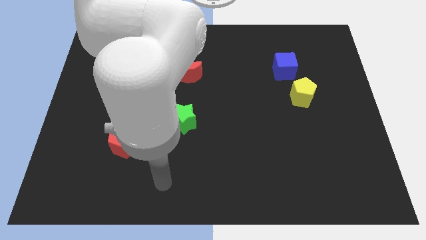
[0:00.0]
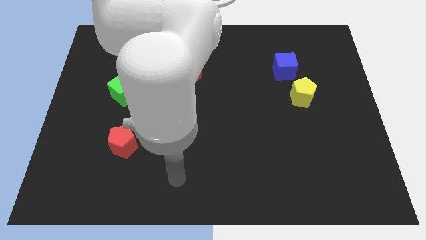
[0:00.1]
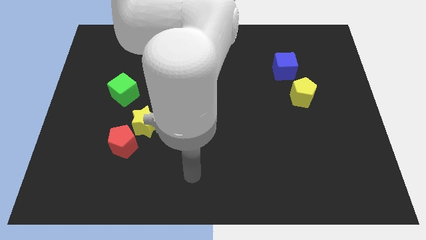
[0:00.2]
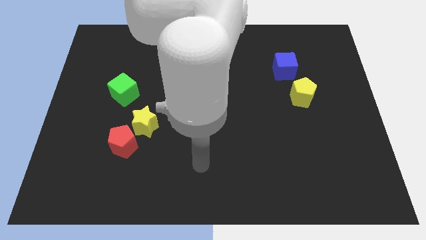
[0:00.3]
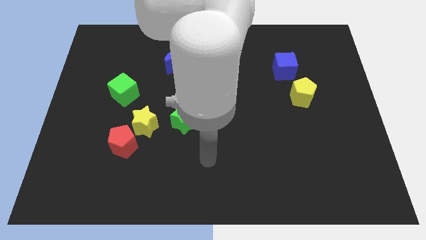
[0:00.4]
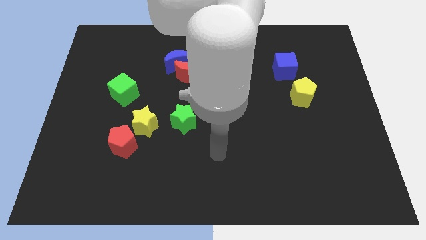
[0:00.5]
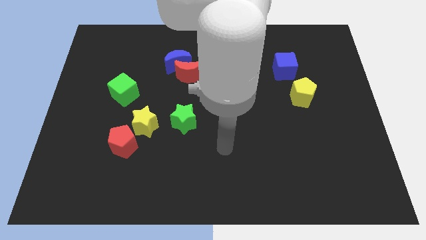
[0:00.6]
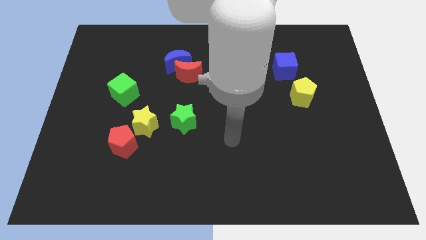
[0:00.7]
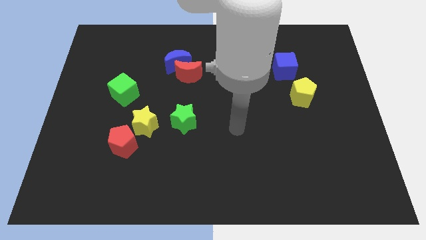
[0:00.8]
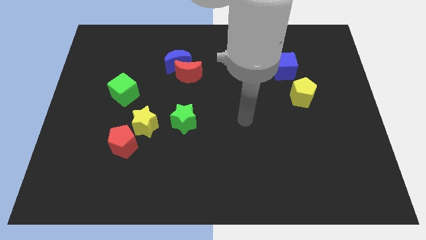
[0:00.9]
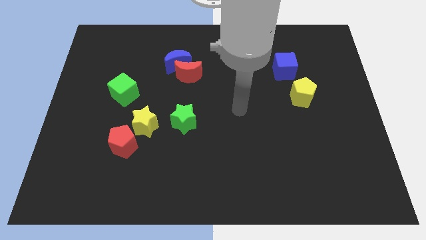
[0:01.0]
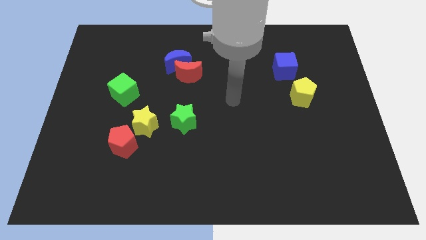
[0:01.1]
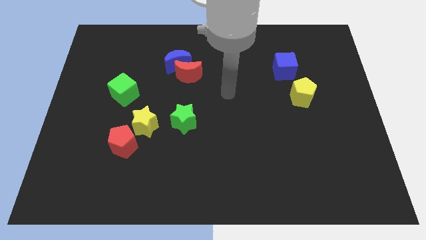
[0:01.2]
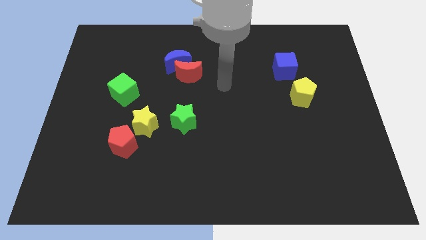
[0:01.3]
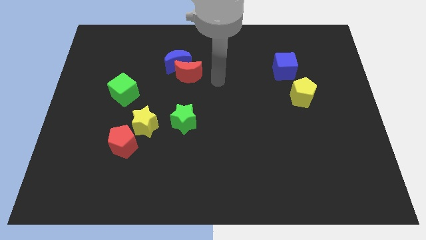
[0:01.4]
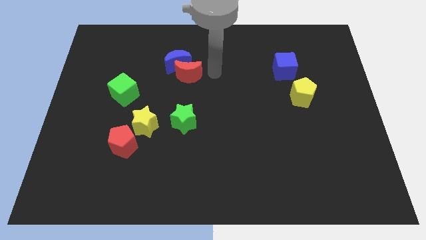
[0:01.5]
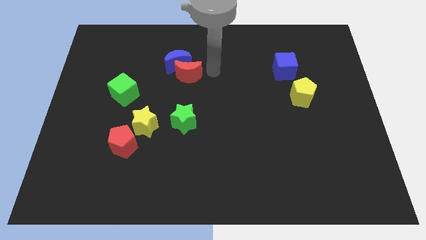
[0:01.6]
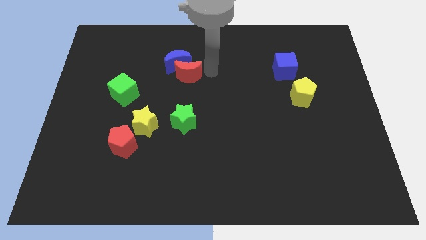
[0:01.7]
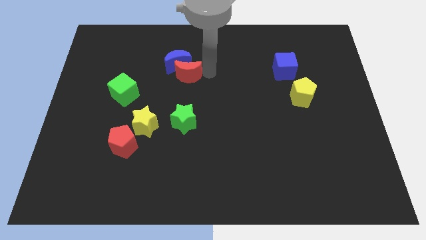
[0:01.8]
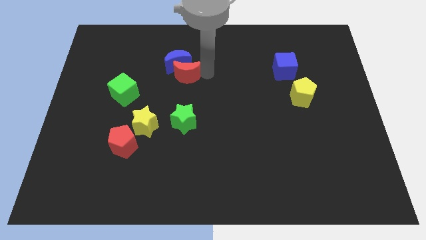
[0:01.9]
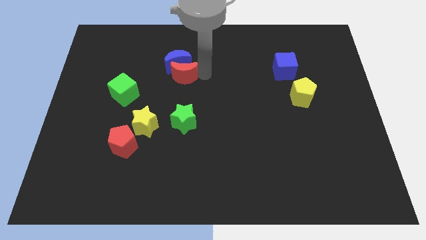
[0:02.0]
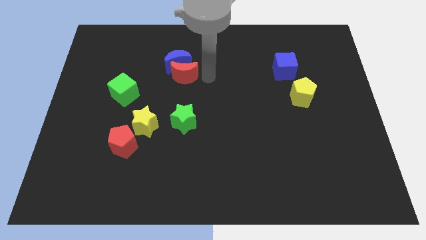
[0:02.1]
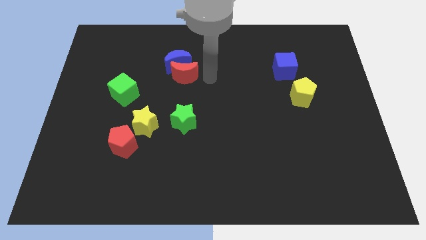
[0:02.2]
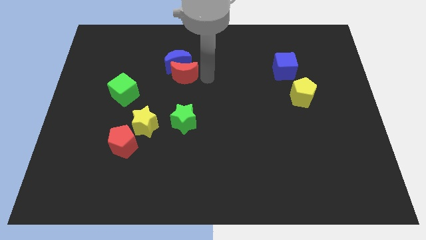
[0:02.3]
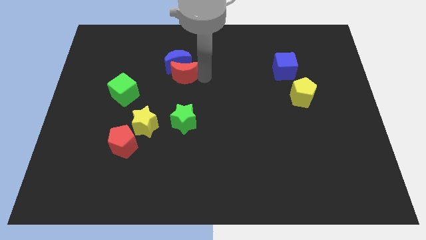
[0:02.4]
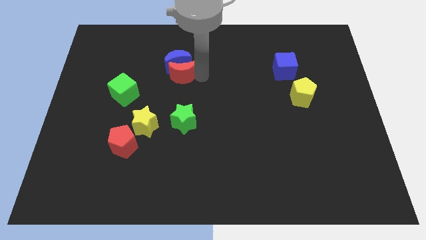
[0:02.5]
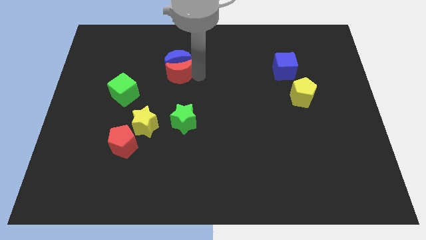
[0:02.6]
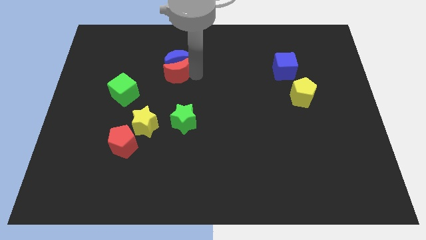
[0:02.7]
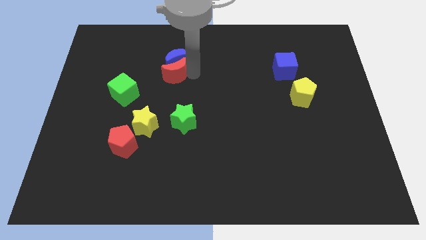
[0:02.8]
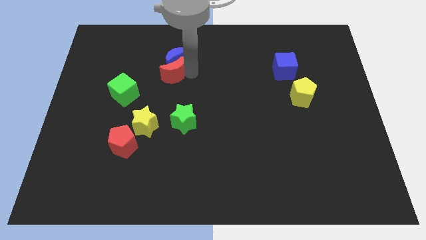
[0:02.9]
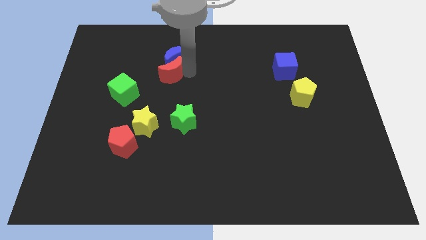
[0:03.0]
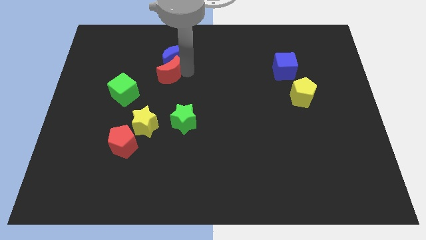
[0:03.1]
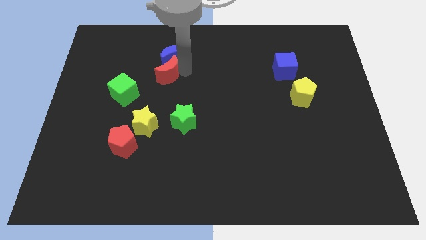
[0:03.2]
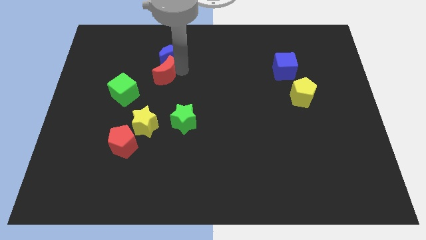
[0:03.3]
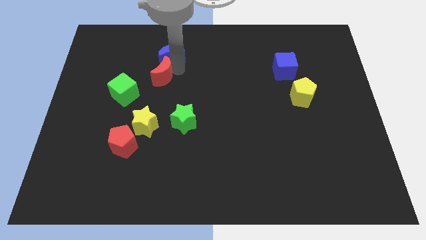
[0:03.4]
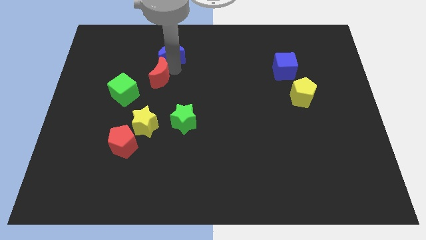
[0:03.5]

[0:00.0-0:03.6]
push the red moon left a little

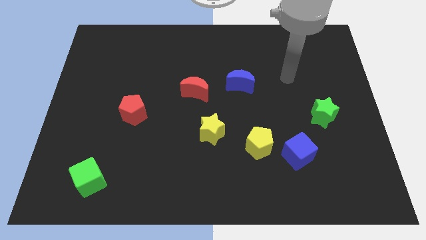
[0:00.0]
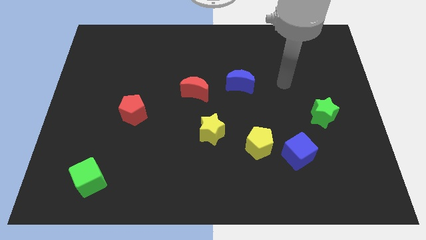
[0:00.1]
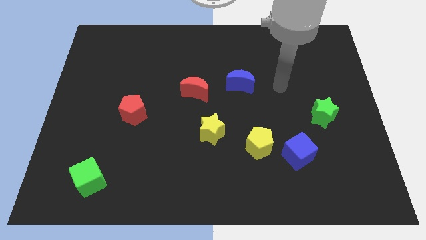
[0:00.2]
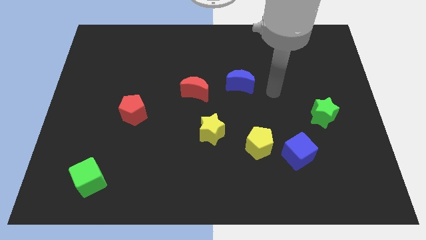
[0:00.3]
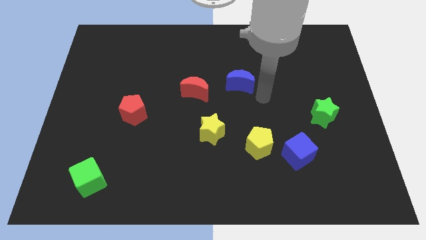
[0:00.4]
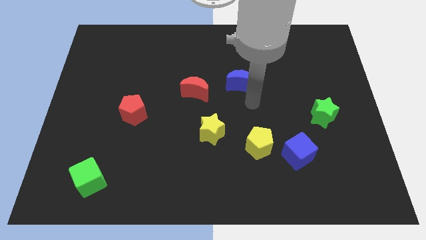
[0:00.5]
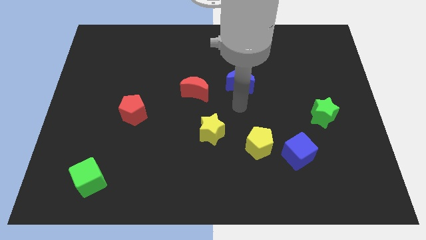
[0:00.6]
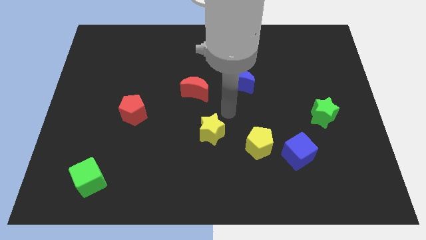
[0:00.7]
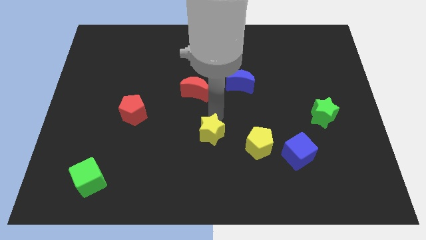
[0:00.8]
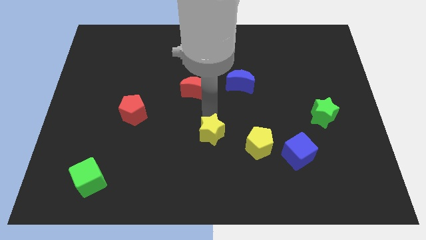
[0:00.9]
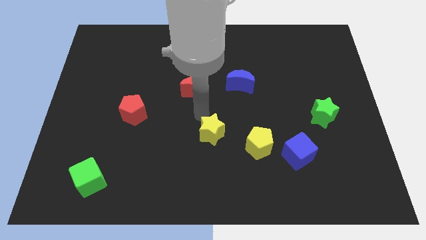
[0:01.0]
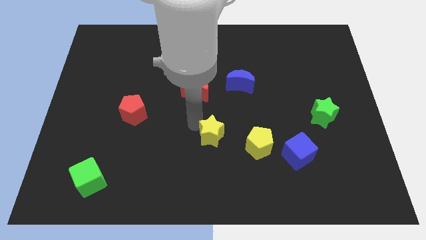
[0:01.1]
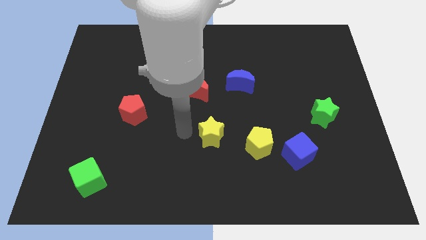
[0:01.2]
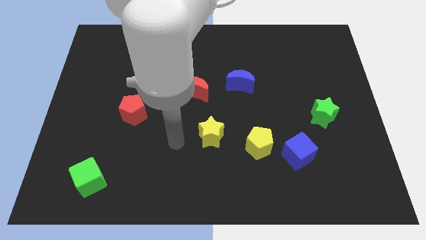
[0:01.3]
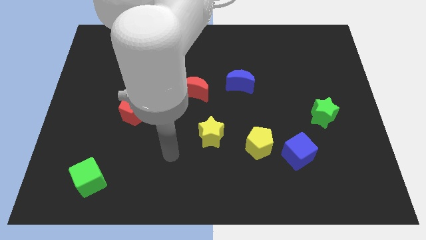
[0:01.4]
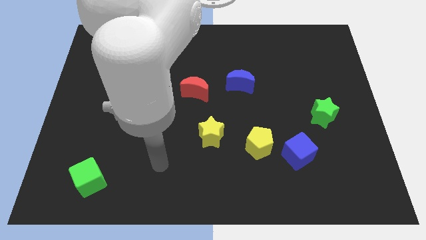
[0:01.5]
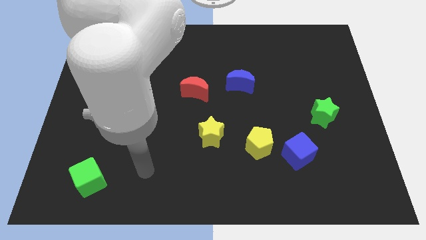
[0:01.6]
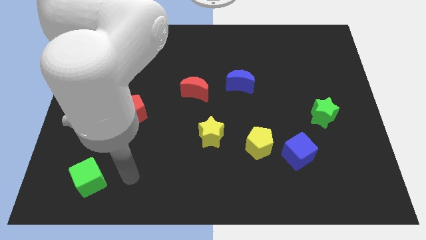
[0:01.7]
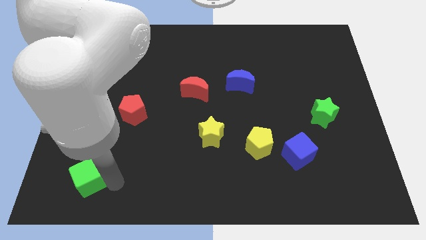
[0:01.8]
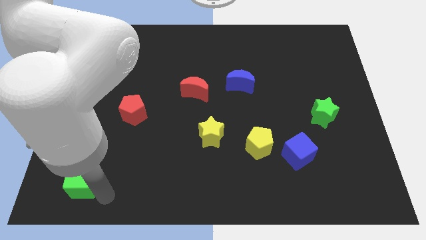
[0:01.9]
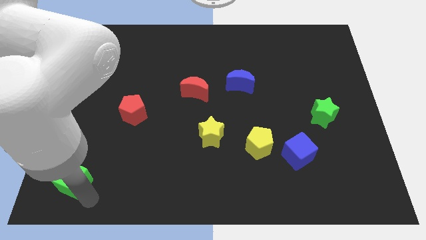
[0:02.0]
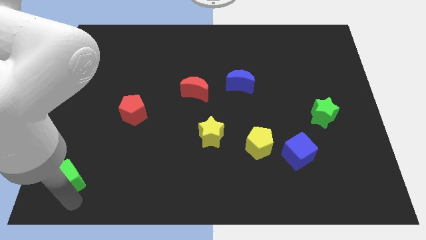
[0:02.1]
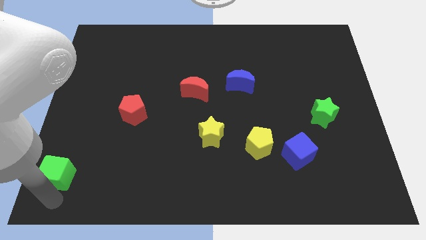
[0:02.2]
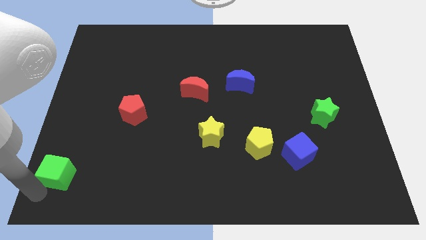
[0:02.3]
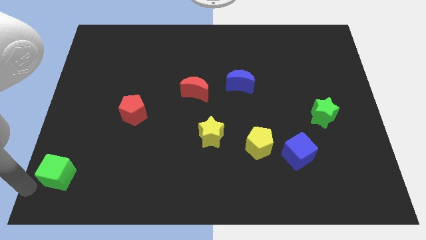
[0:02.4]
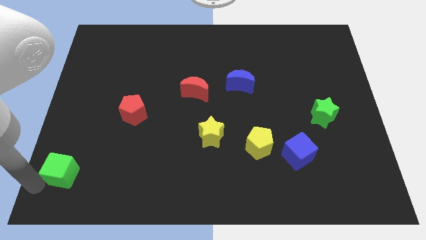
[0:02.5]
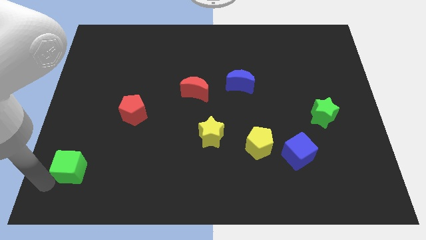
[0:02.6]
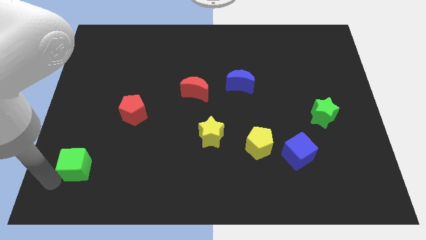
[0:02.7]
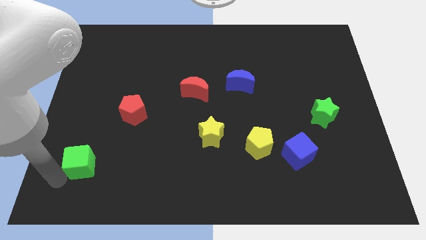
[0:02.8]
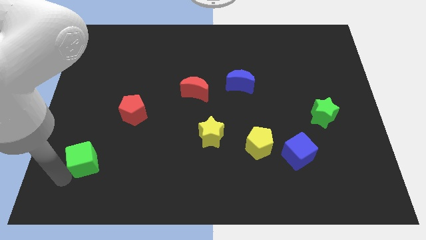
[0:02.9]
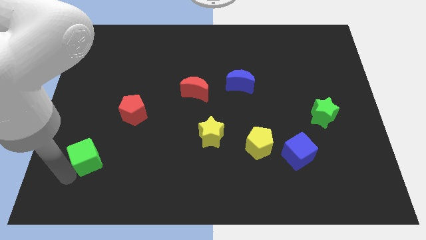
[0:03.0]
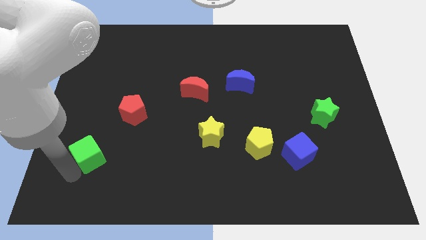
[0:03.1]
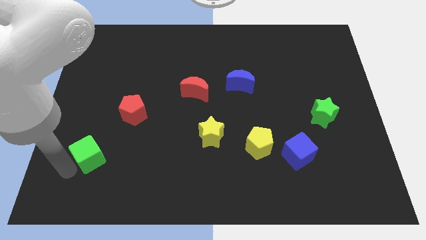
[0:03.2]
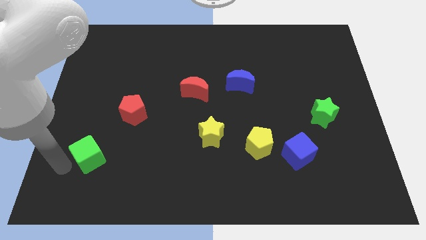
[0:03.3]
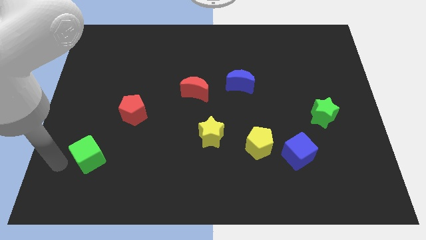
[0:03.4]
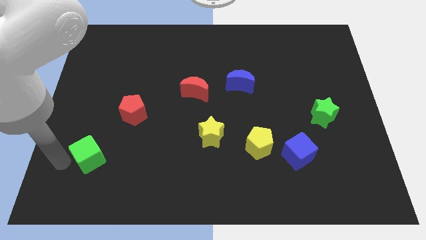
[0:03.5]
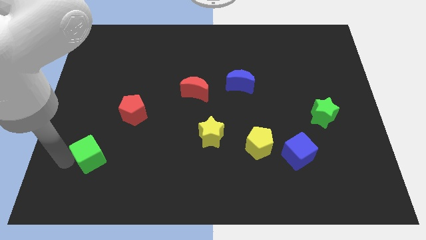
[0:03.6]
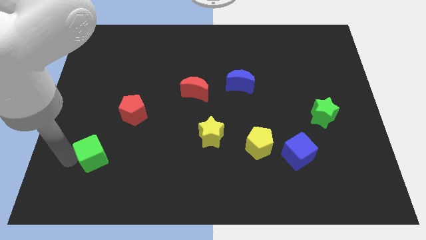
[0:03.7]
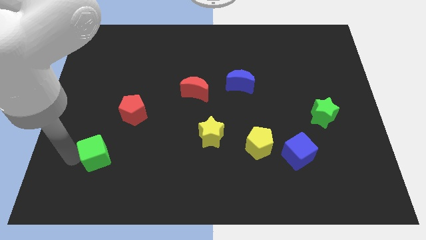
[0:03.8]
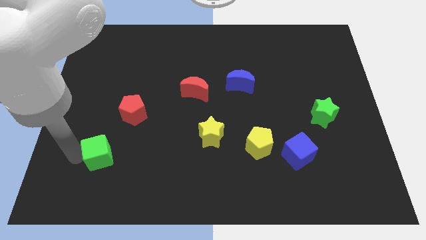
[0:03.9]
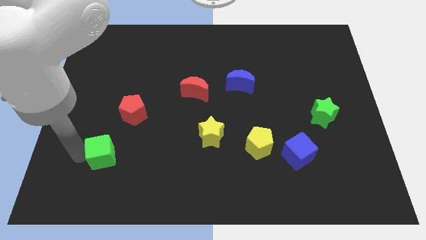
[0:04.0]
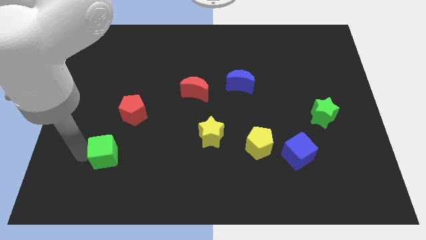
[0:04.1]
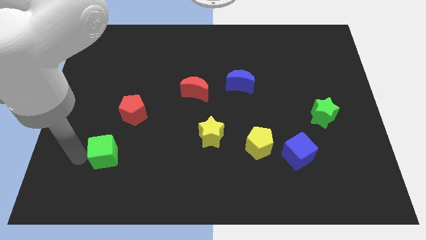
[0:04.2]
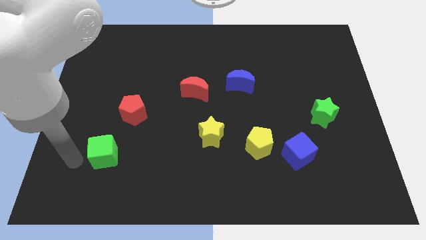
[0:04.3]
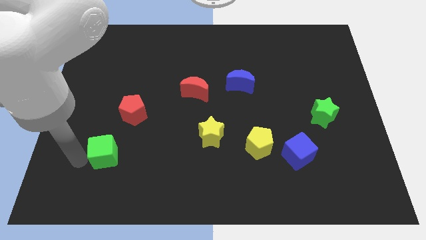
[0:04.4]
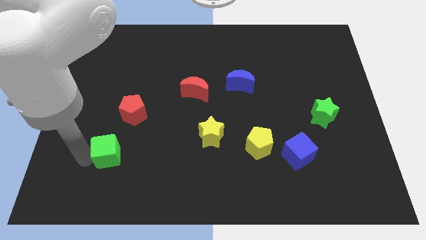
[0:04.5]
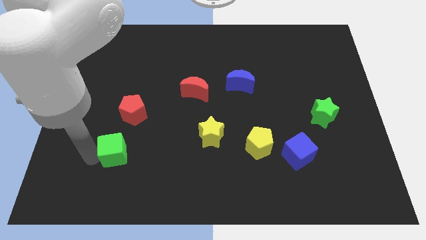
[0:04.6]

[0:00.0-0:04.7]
push the green cube somewhat up and to the right diagonally
